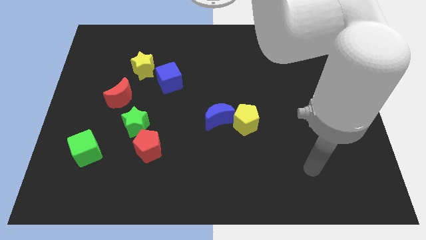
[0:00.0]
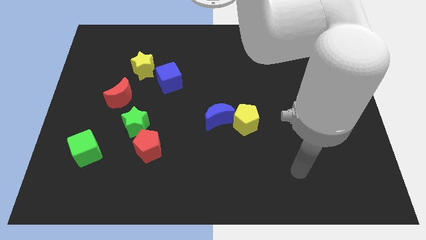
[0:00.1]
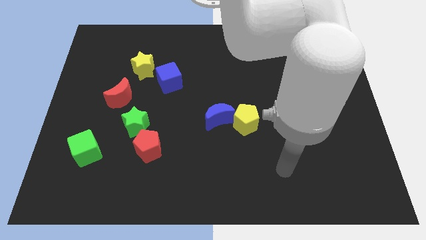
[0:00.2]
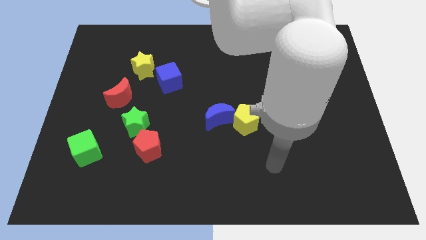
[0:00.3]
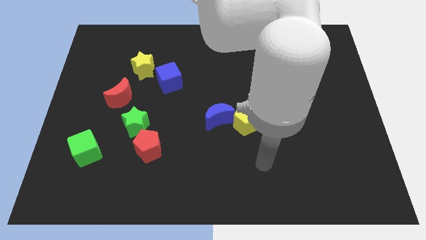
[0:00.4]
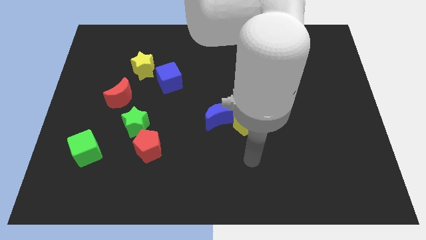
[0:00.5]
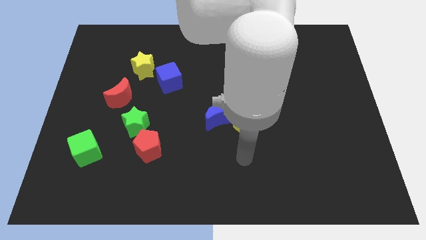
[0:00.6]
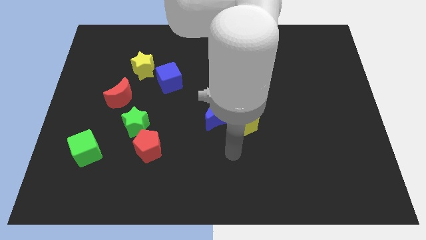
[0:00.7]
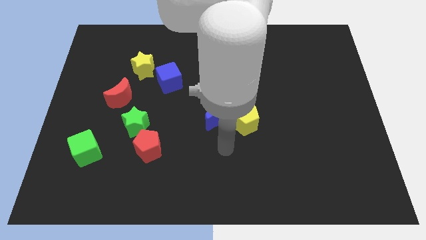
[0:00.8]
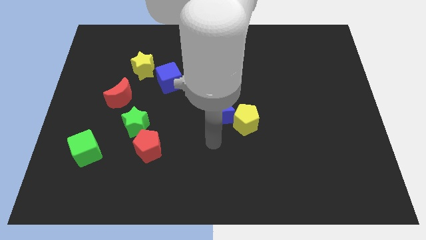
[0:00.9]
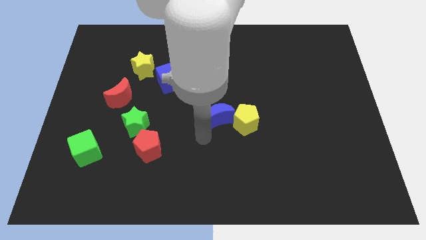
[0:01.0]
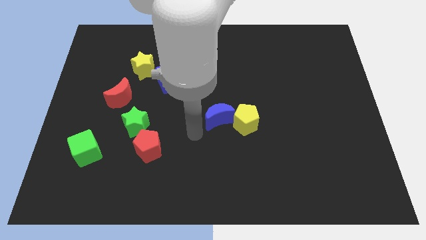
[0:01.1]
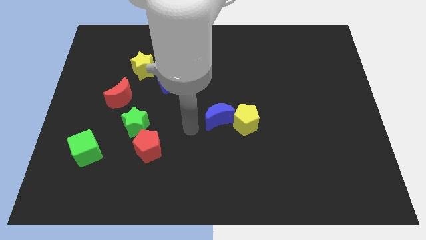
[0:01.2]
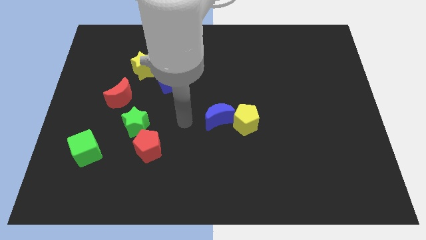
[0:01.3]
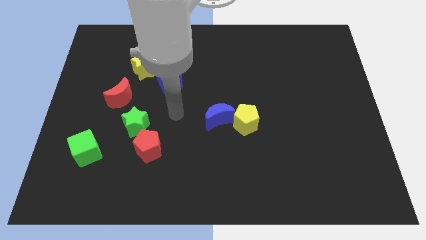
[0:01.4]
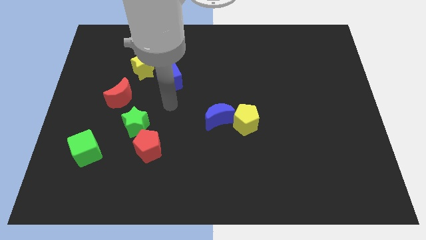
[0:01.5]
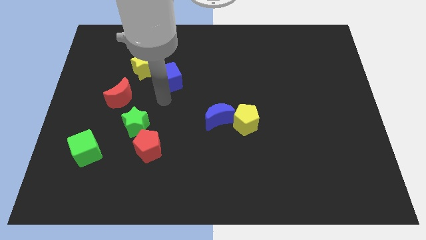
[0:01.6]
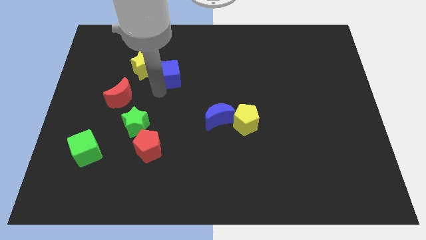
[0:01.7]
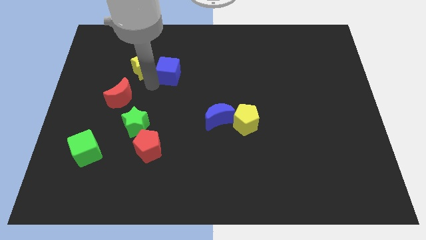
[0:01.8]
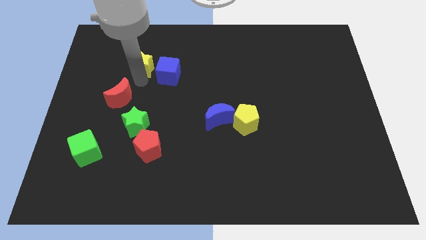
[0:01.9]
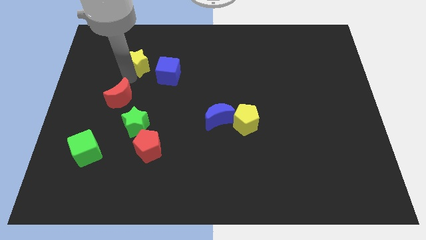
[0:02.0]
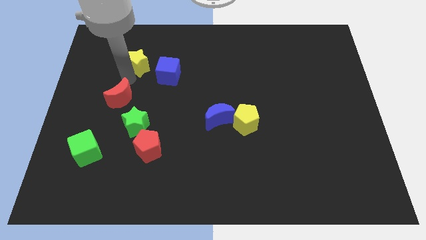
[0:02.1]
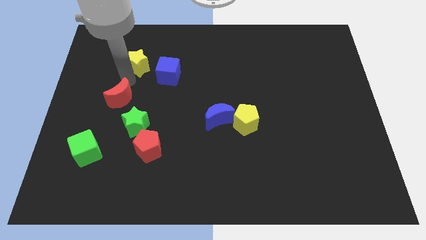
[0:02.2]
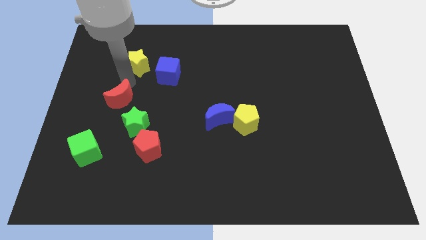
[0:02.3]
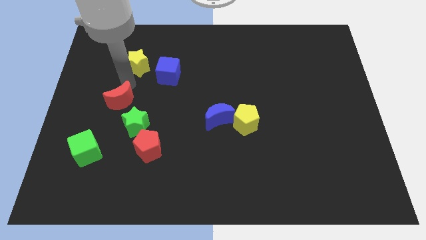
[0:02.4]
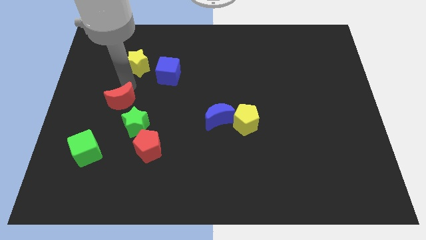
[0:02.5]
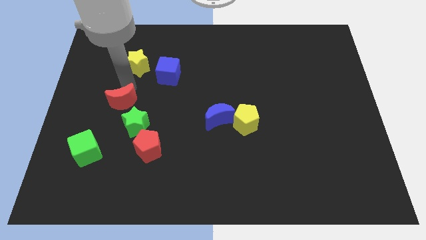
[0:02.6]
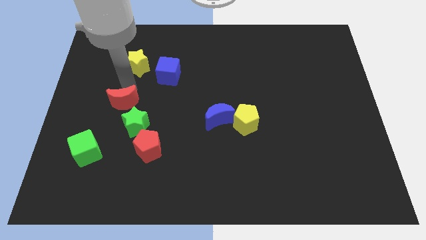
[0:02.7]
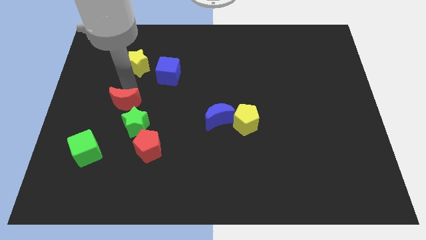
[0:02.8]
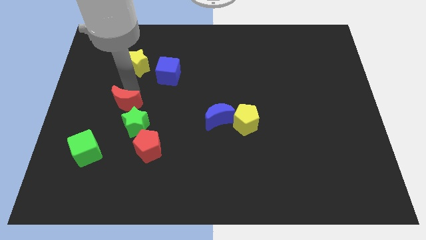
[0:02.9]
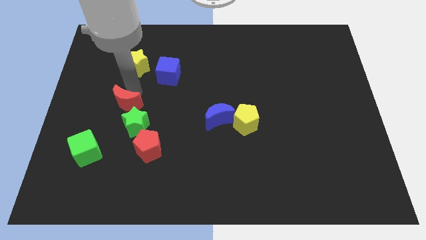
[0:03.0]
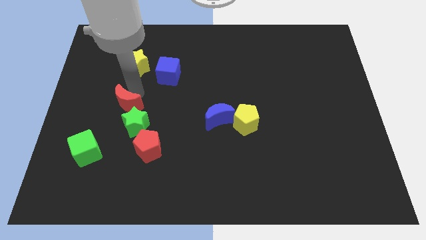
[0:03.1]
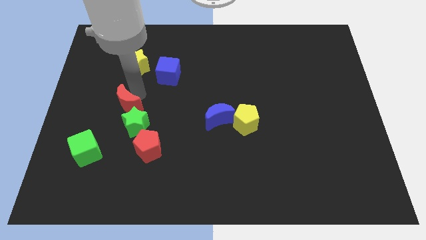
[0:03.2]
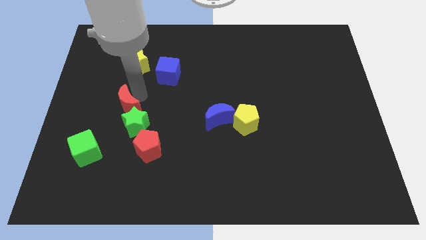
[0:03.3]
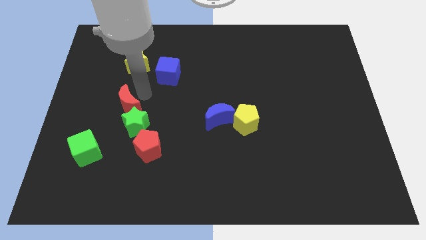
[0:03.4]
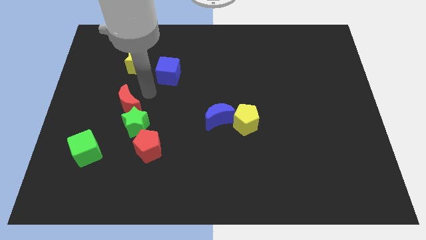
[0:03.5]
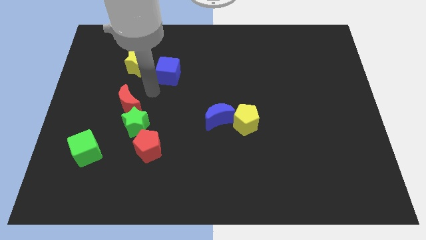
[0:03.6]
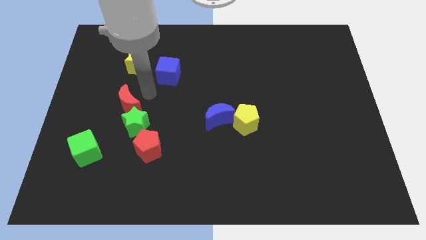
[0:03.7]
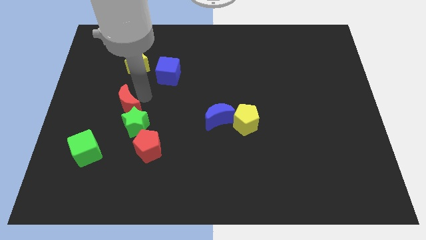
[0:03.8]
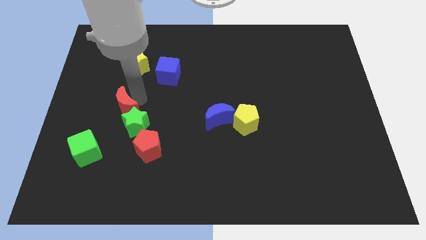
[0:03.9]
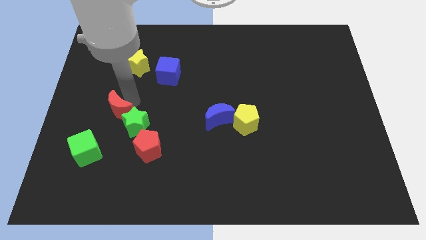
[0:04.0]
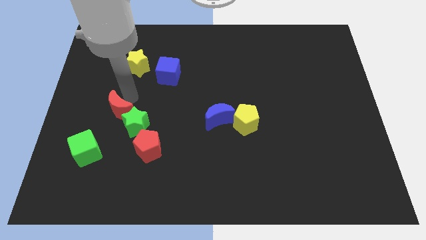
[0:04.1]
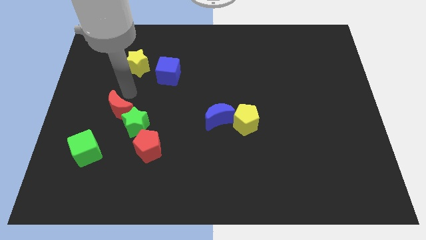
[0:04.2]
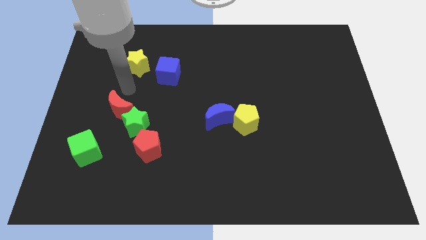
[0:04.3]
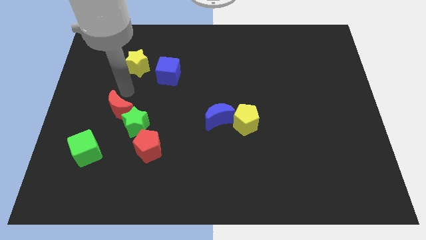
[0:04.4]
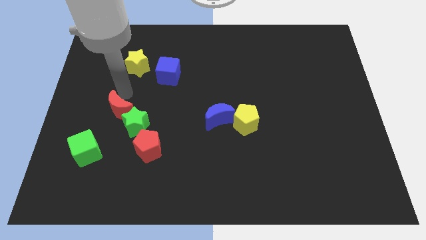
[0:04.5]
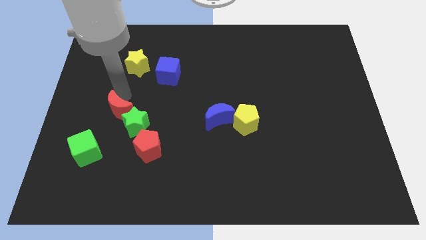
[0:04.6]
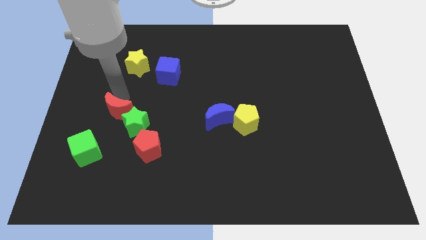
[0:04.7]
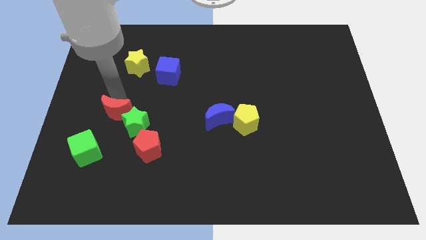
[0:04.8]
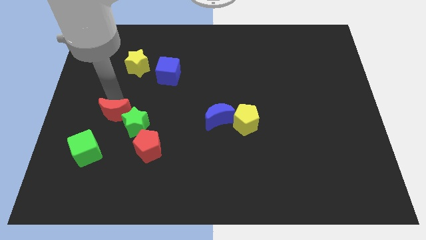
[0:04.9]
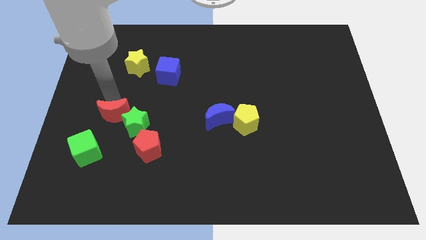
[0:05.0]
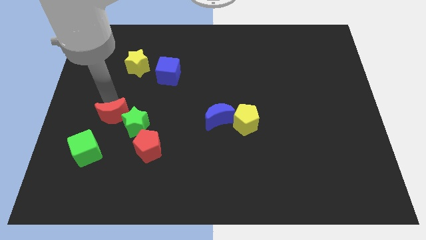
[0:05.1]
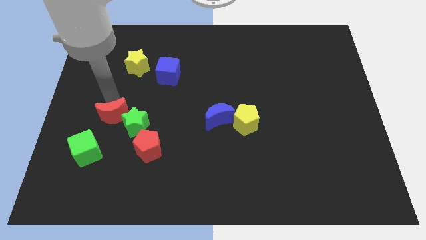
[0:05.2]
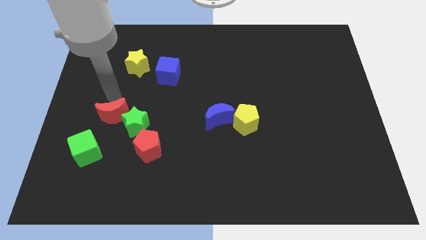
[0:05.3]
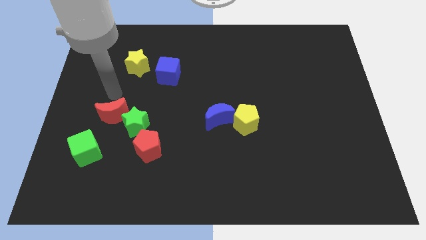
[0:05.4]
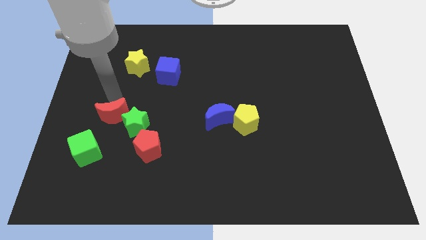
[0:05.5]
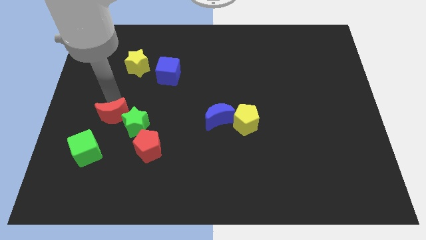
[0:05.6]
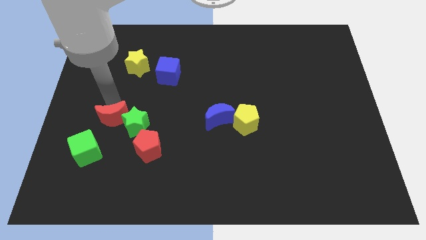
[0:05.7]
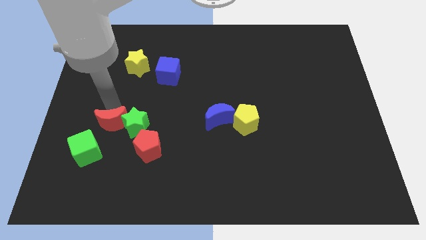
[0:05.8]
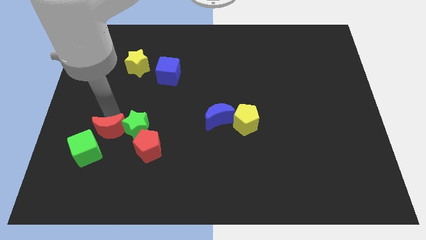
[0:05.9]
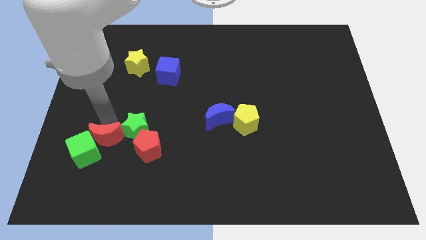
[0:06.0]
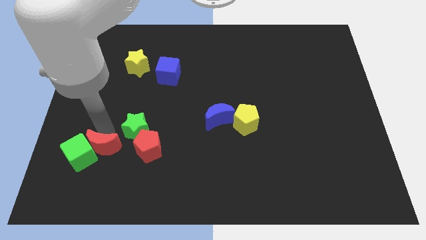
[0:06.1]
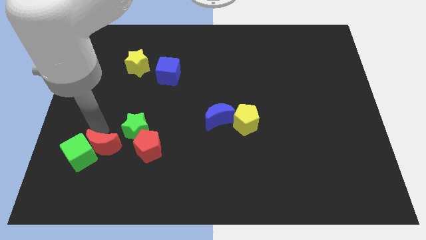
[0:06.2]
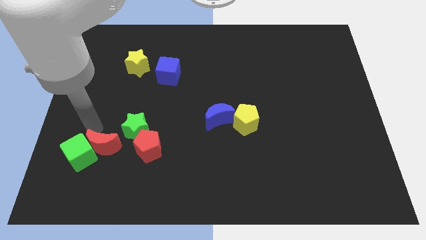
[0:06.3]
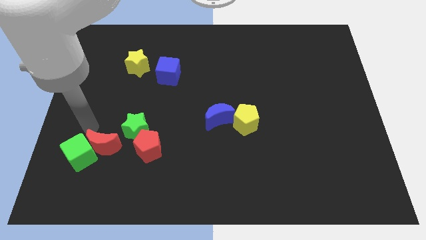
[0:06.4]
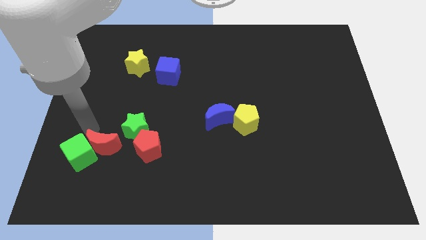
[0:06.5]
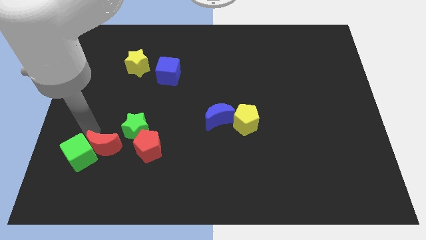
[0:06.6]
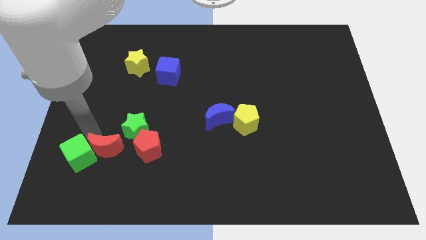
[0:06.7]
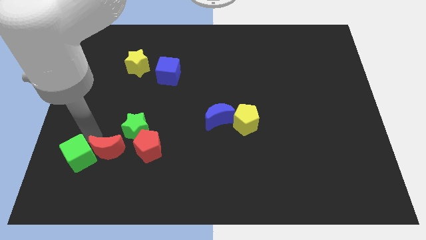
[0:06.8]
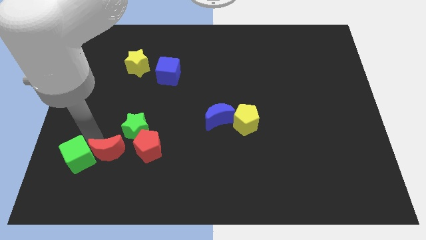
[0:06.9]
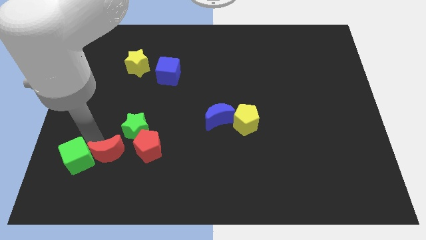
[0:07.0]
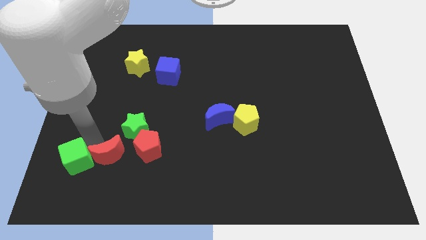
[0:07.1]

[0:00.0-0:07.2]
put the red moon diagonally down and to the left of the red pentagon

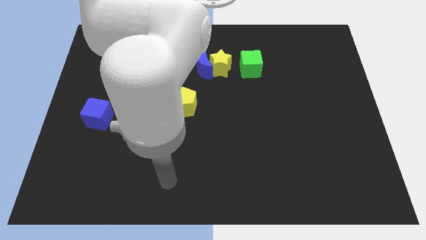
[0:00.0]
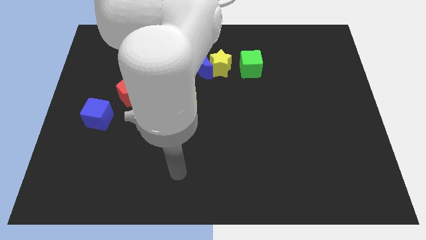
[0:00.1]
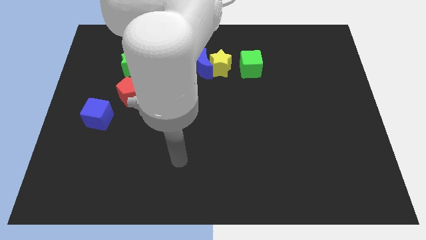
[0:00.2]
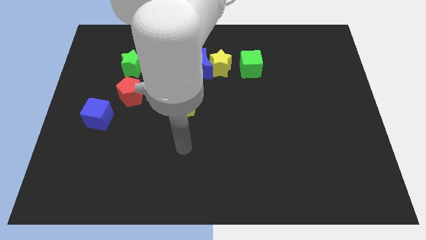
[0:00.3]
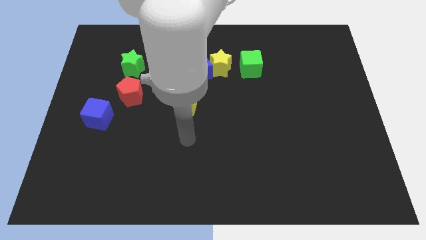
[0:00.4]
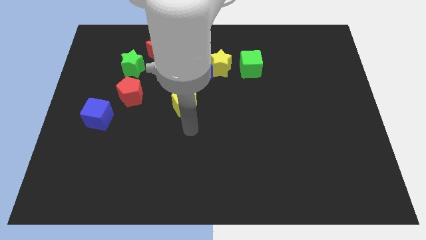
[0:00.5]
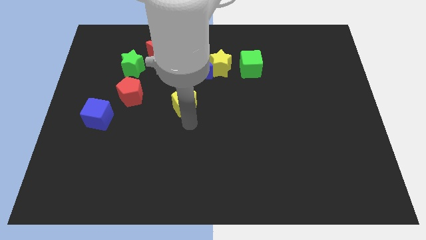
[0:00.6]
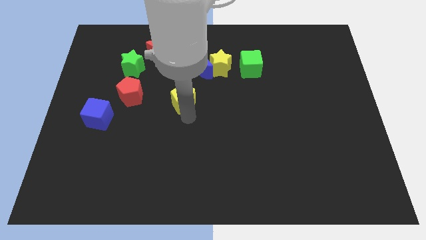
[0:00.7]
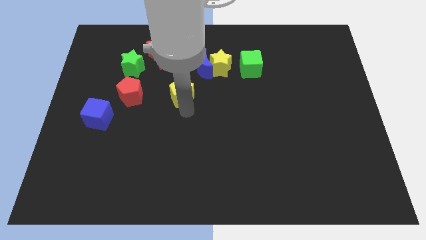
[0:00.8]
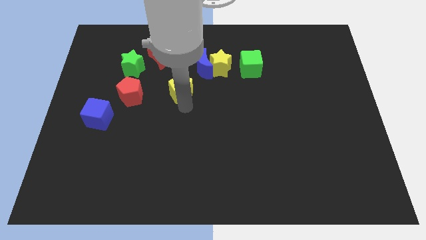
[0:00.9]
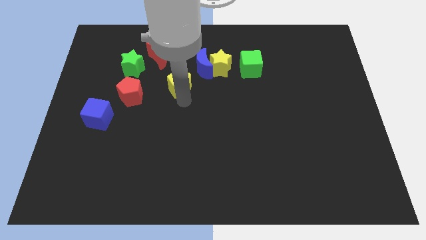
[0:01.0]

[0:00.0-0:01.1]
put the yellow pentagon to the bottom right of the red moon
